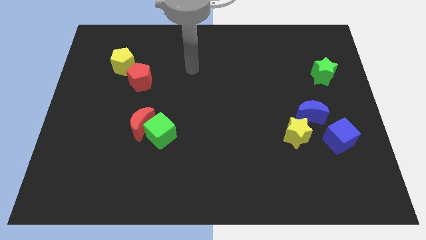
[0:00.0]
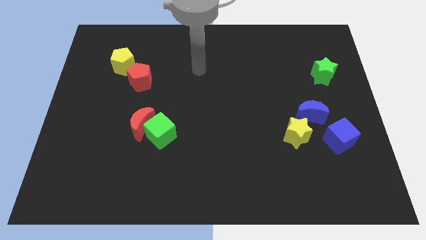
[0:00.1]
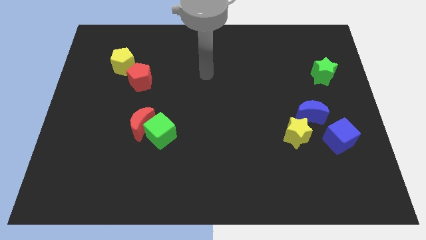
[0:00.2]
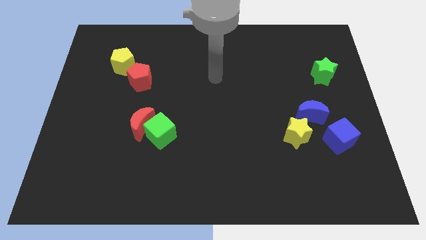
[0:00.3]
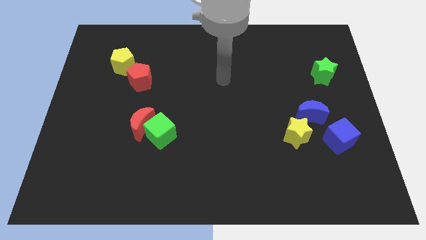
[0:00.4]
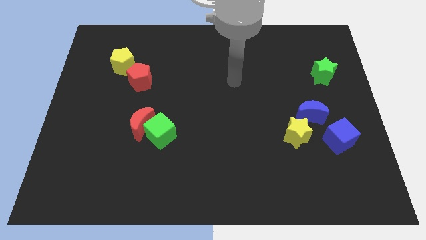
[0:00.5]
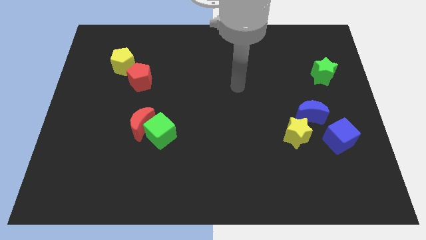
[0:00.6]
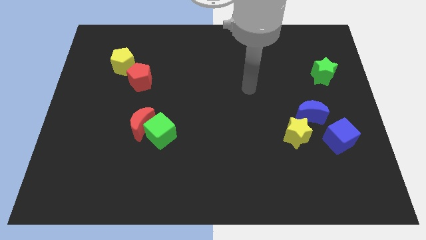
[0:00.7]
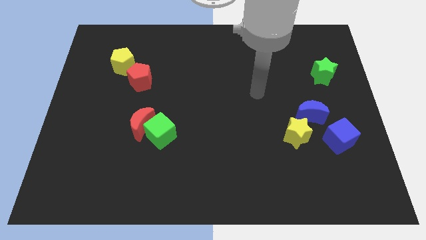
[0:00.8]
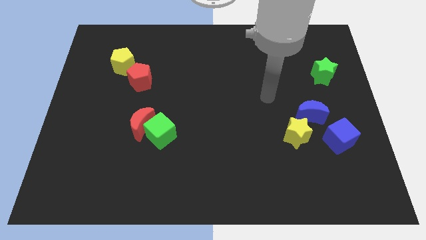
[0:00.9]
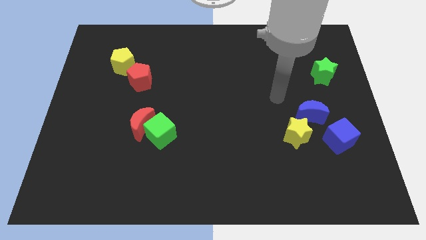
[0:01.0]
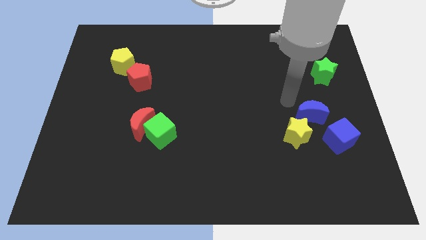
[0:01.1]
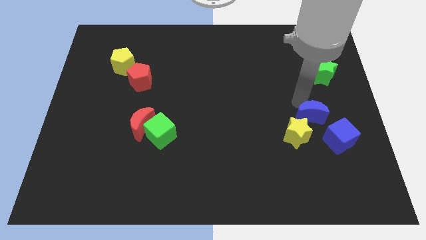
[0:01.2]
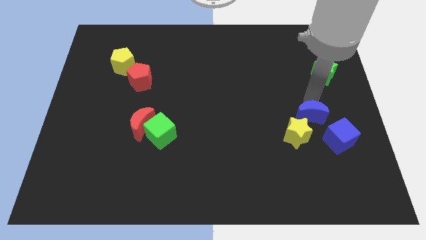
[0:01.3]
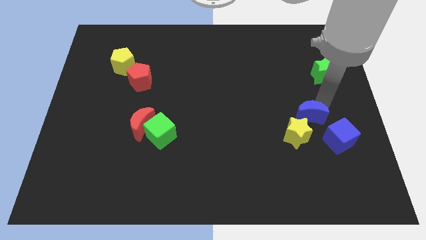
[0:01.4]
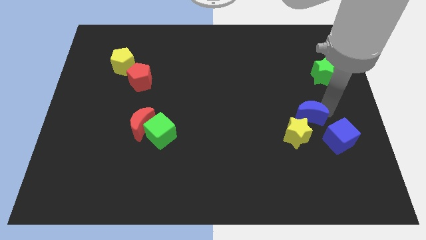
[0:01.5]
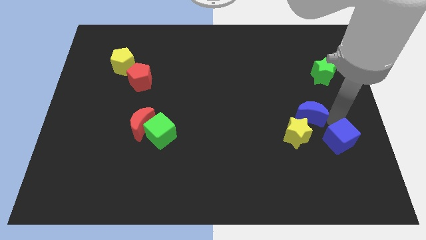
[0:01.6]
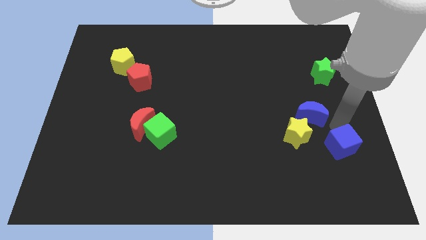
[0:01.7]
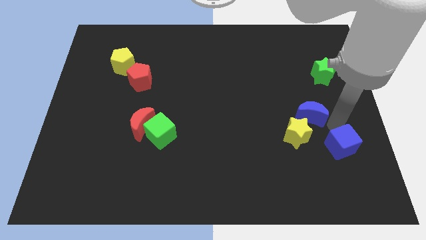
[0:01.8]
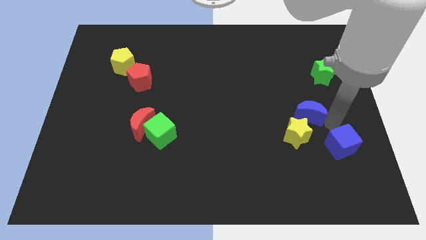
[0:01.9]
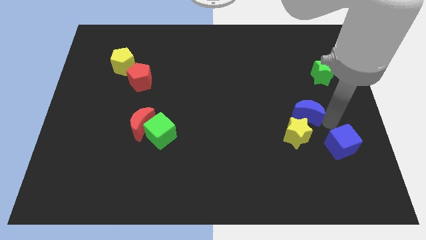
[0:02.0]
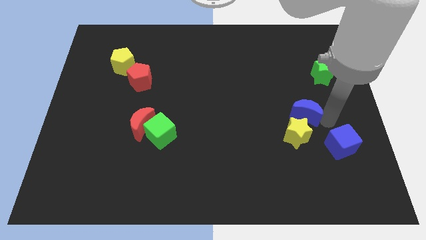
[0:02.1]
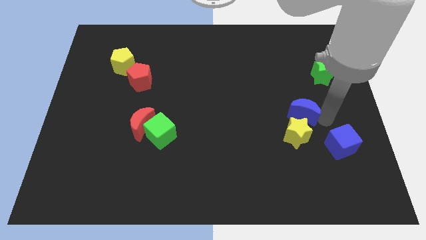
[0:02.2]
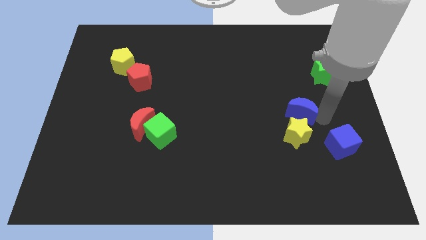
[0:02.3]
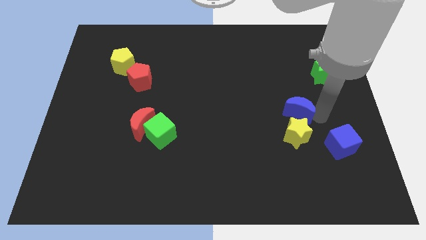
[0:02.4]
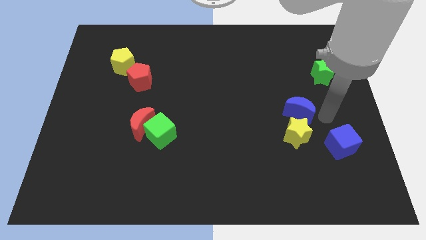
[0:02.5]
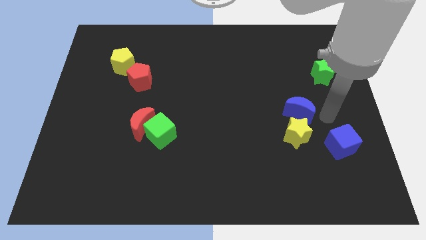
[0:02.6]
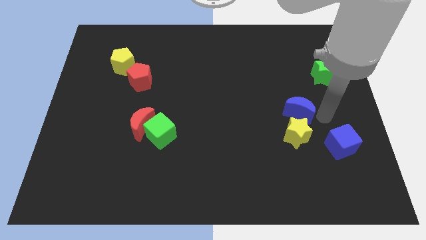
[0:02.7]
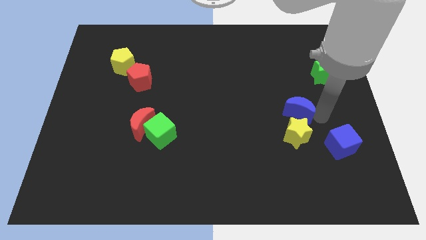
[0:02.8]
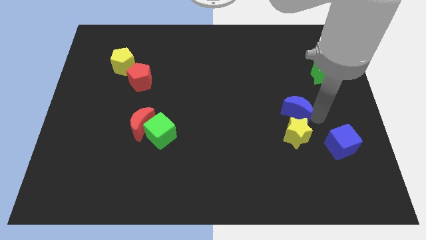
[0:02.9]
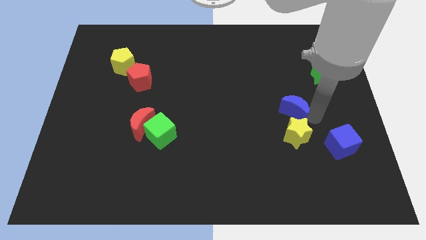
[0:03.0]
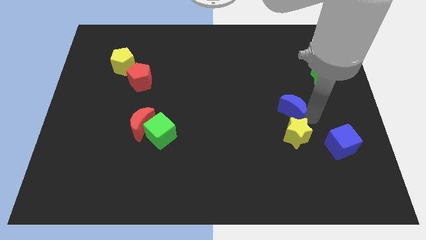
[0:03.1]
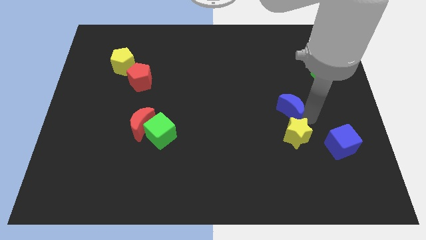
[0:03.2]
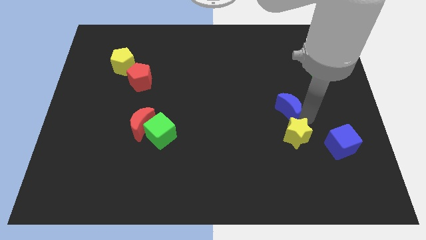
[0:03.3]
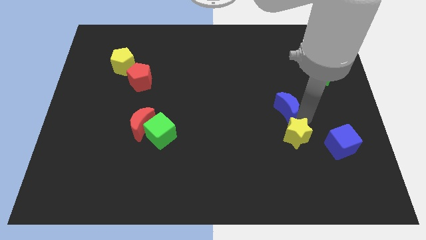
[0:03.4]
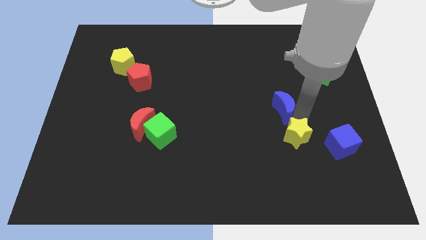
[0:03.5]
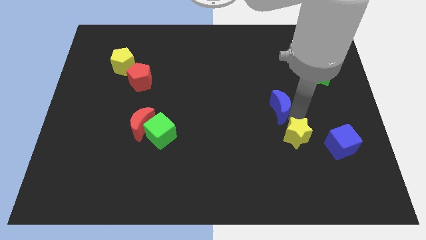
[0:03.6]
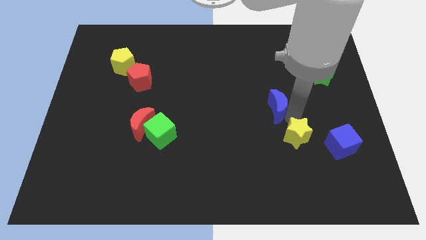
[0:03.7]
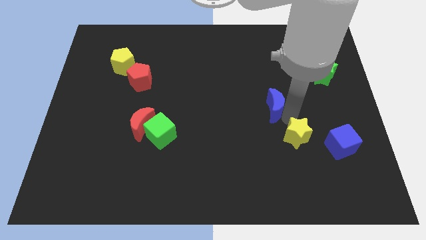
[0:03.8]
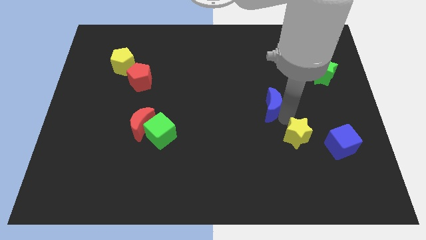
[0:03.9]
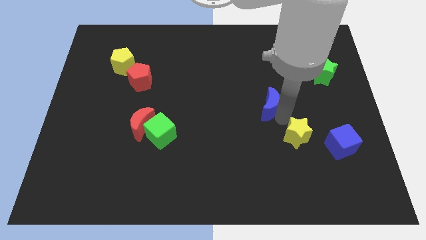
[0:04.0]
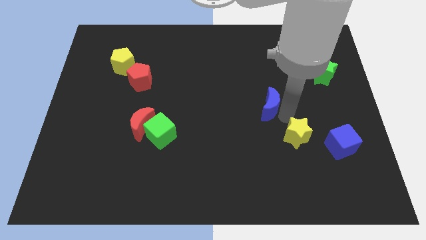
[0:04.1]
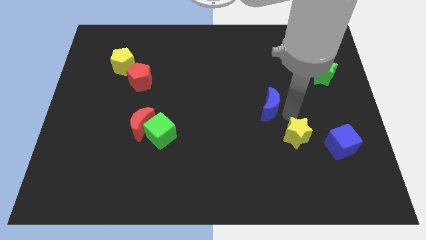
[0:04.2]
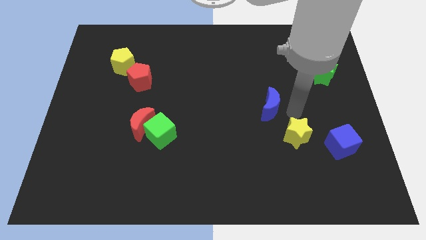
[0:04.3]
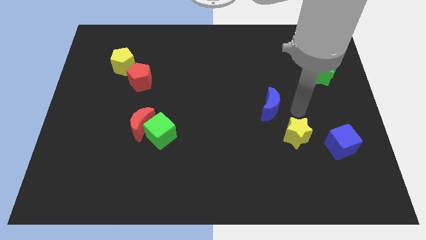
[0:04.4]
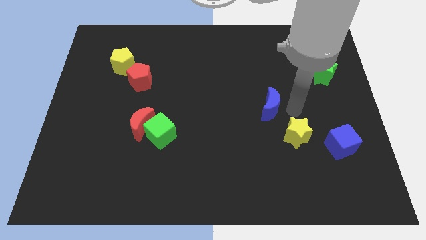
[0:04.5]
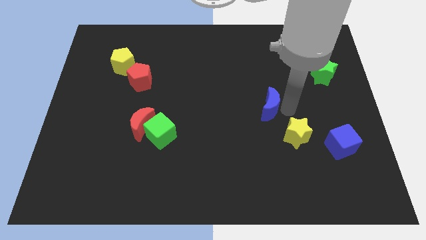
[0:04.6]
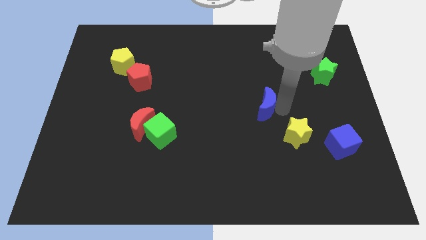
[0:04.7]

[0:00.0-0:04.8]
put the blue moon to the center

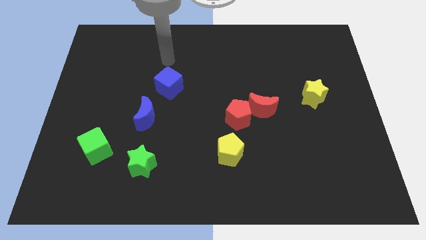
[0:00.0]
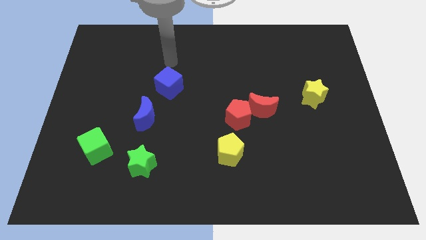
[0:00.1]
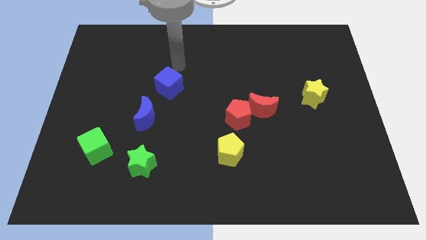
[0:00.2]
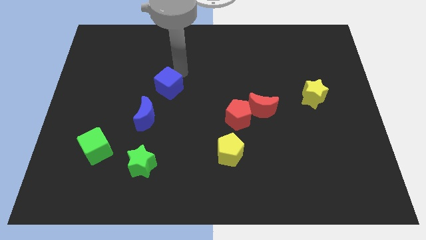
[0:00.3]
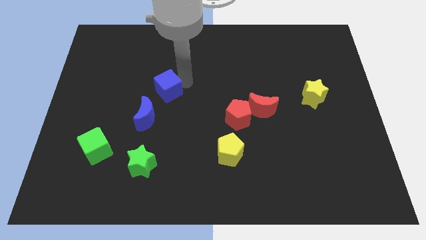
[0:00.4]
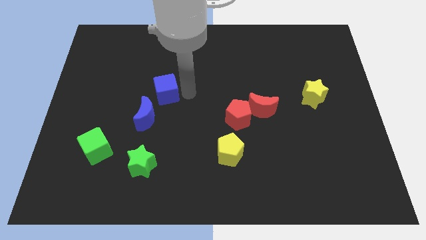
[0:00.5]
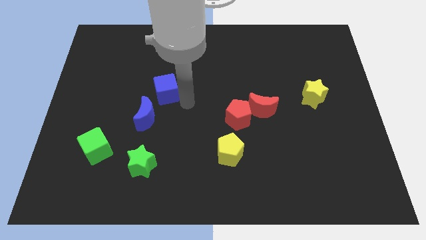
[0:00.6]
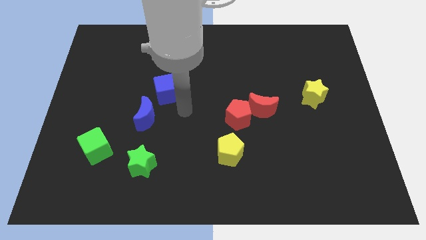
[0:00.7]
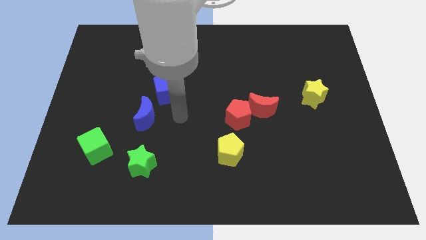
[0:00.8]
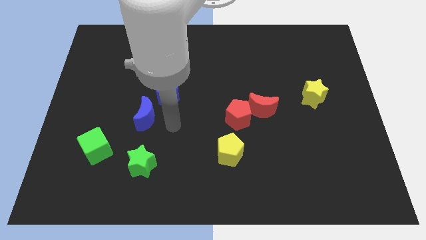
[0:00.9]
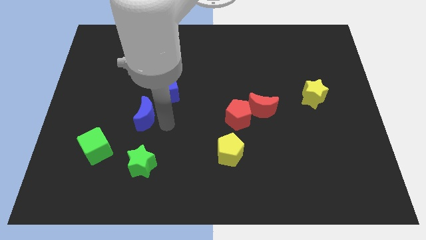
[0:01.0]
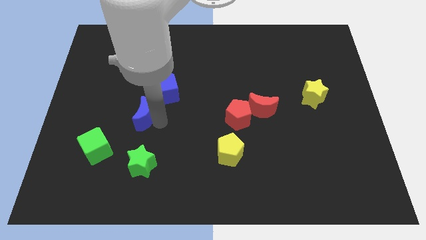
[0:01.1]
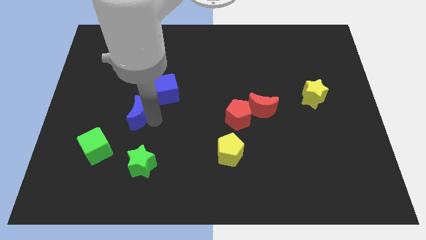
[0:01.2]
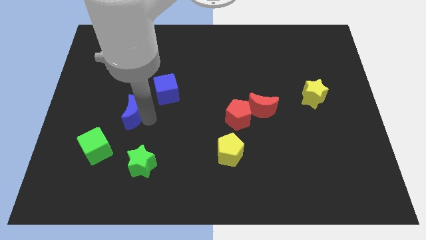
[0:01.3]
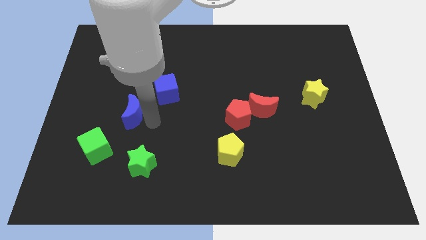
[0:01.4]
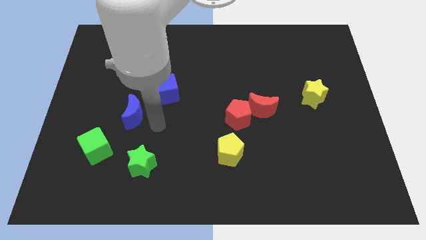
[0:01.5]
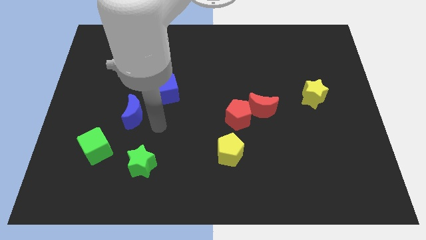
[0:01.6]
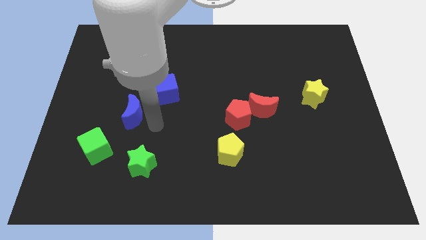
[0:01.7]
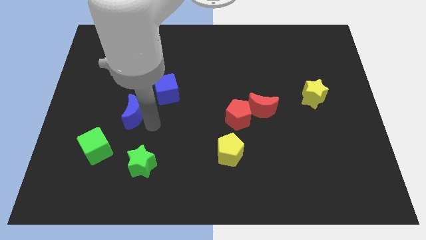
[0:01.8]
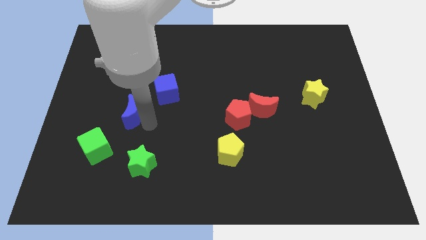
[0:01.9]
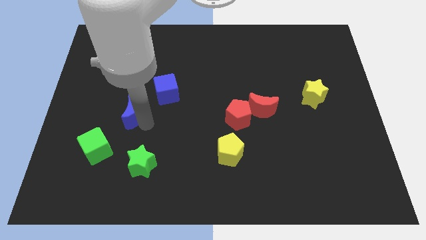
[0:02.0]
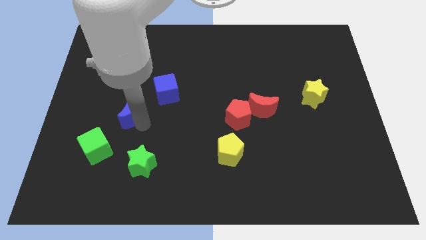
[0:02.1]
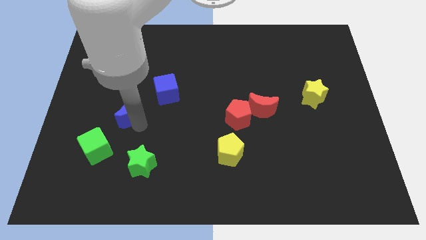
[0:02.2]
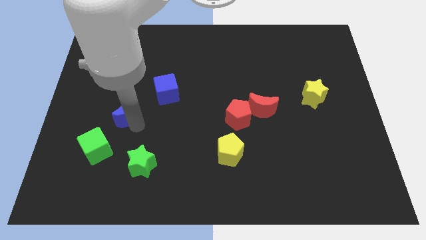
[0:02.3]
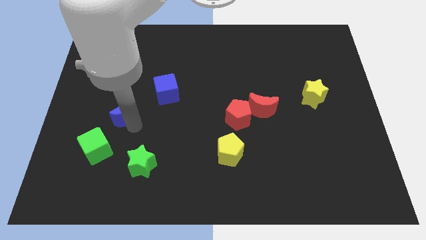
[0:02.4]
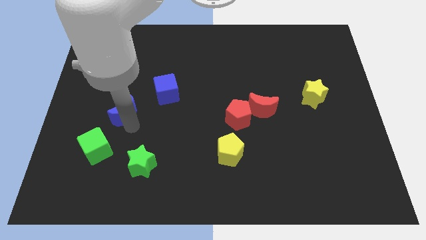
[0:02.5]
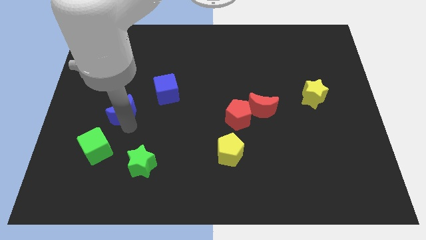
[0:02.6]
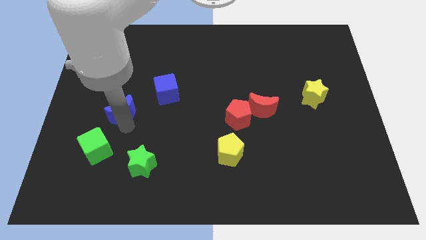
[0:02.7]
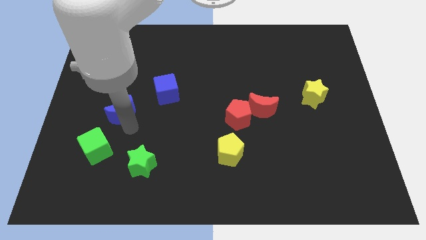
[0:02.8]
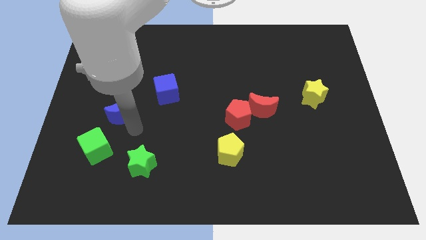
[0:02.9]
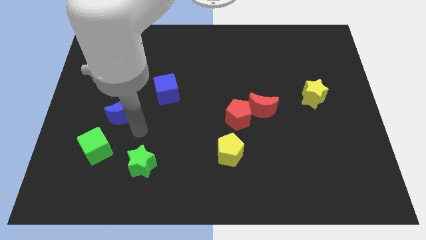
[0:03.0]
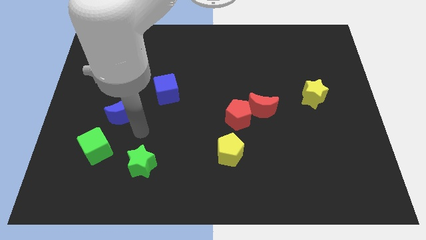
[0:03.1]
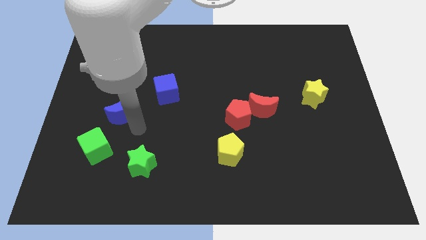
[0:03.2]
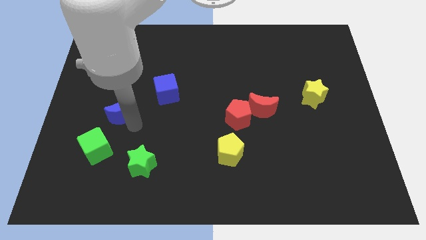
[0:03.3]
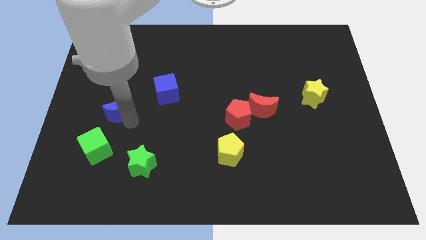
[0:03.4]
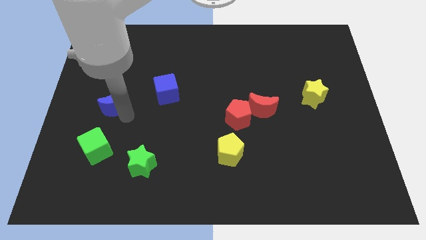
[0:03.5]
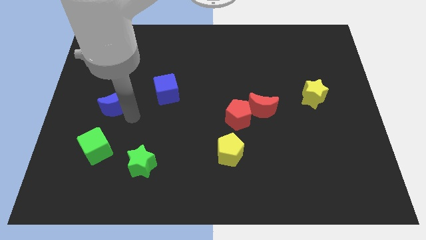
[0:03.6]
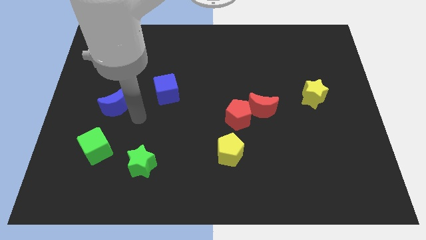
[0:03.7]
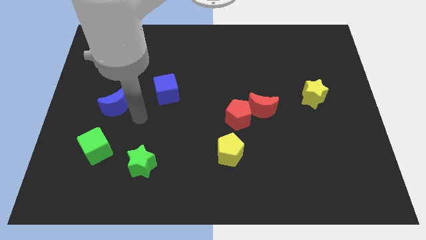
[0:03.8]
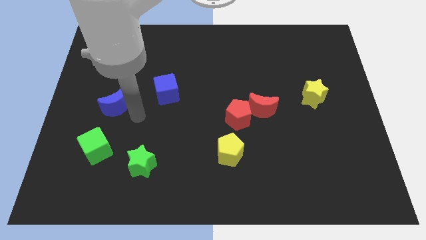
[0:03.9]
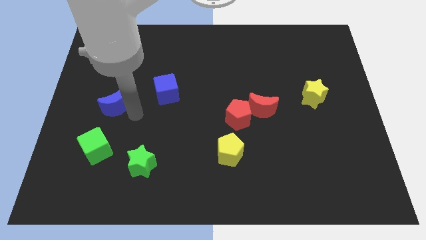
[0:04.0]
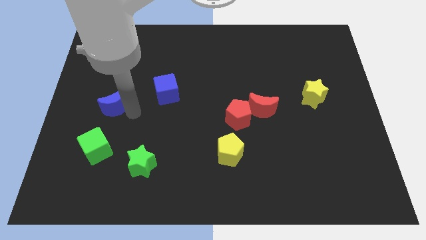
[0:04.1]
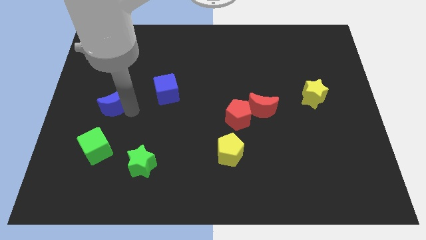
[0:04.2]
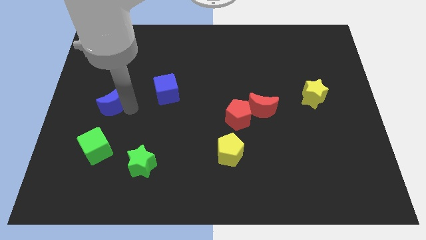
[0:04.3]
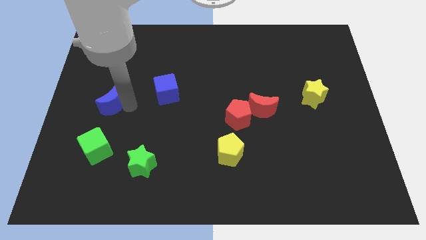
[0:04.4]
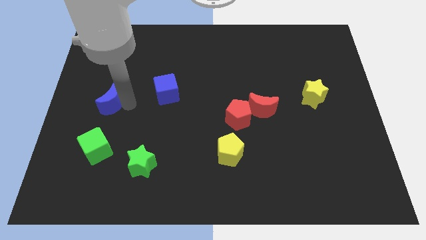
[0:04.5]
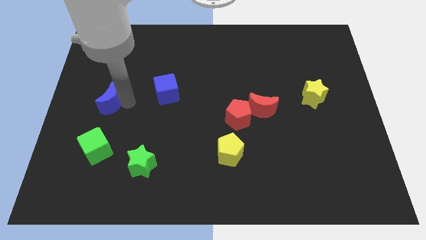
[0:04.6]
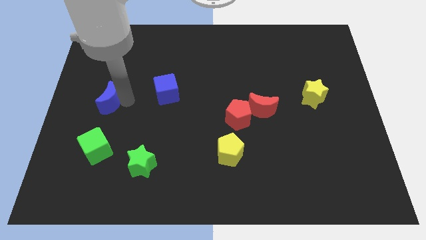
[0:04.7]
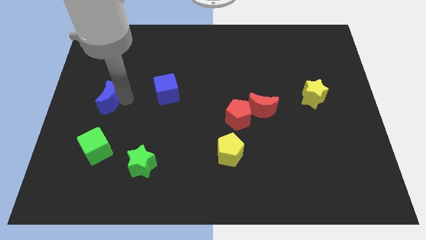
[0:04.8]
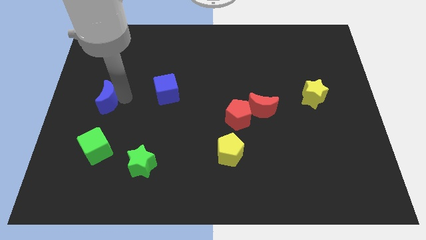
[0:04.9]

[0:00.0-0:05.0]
move the blue moon to the center left
